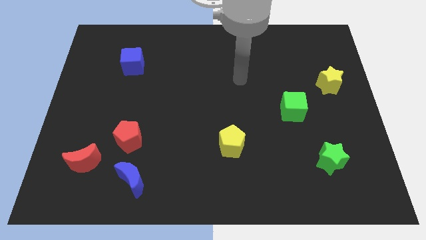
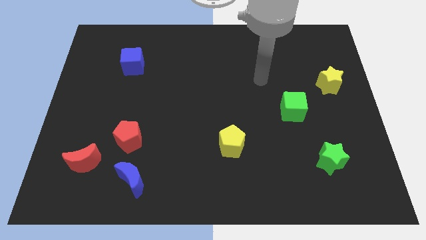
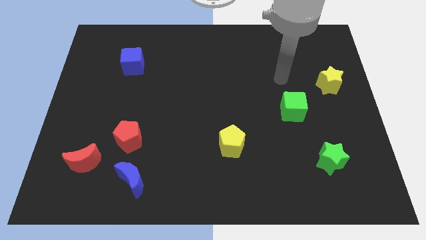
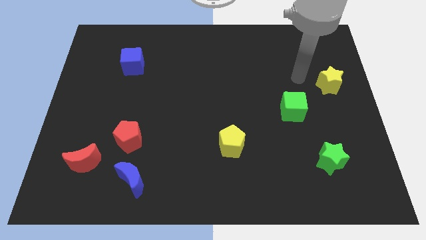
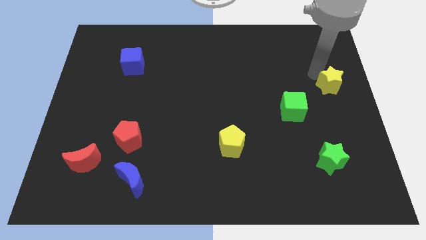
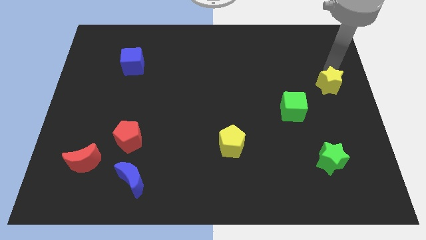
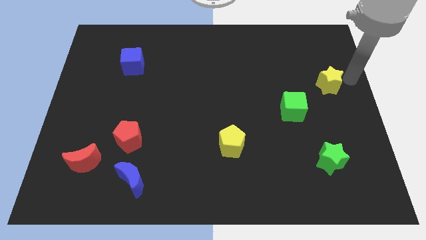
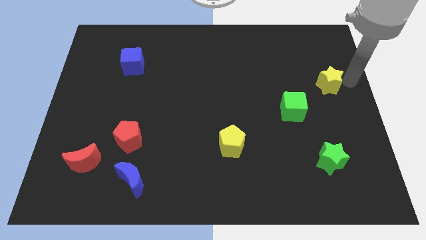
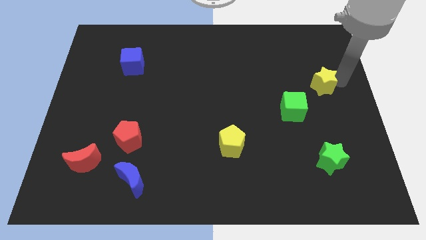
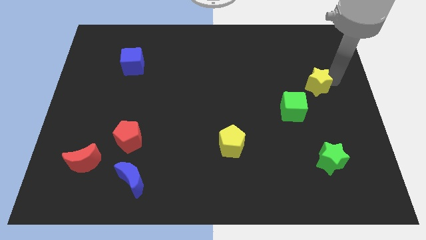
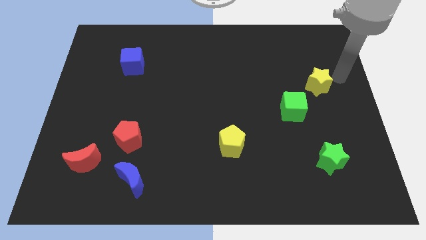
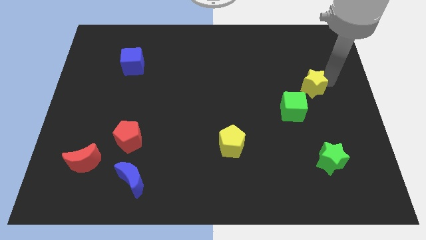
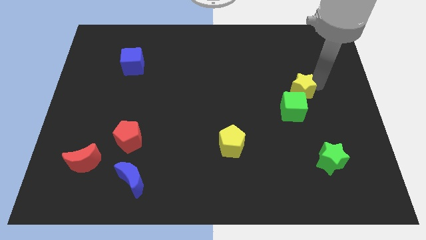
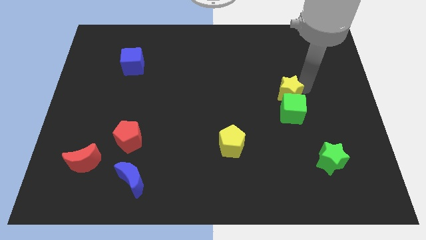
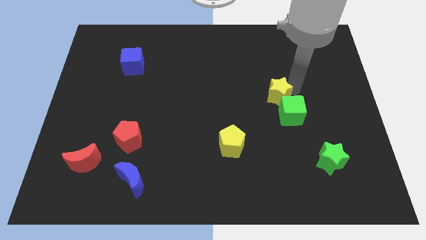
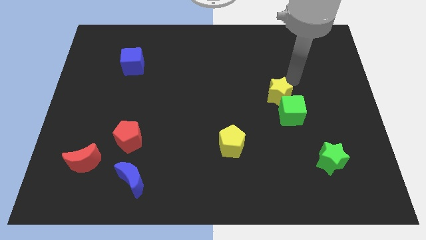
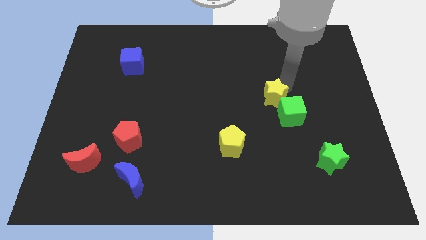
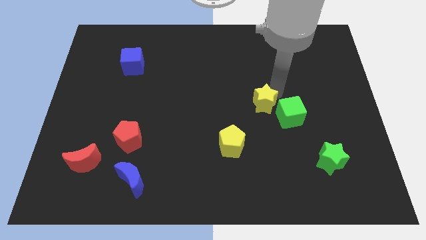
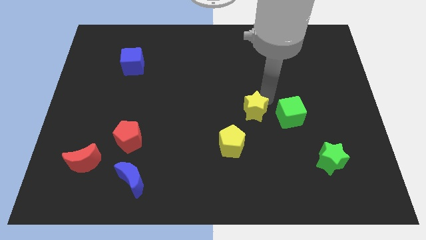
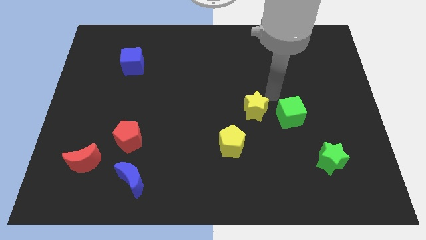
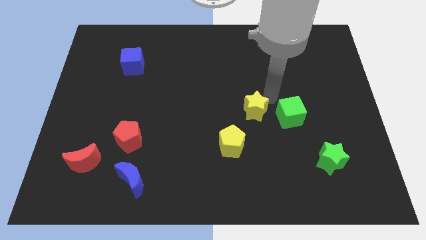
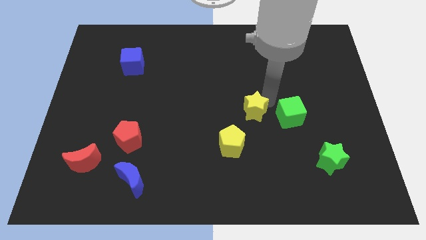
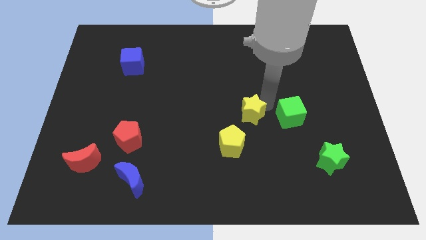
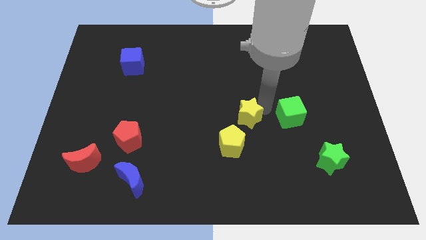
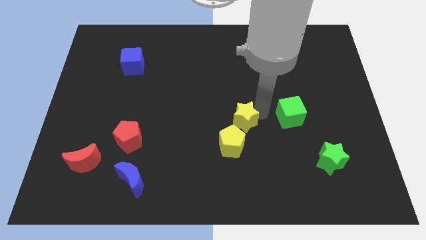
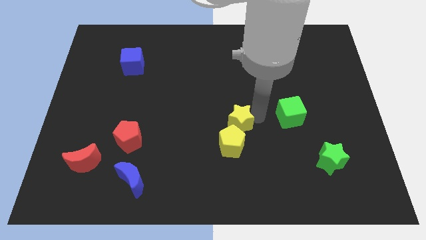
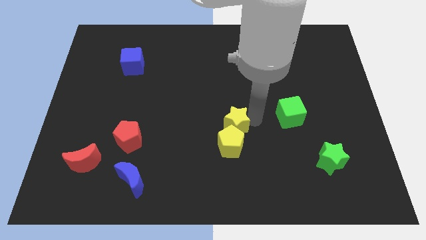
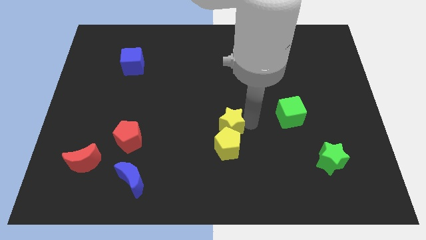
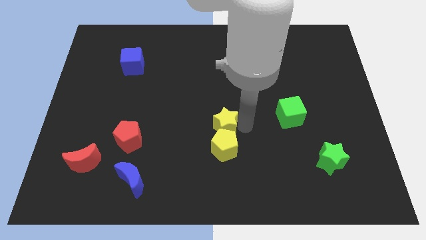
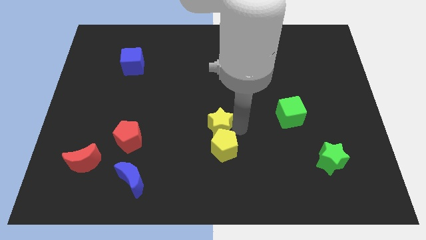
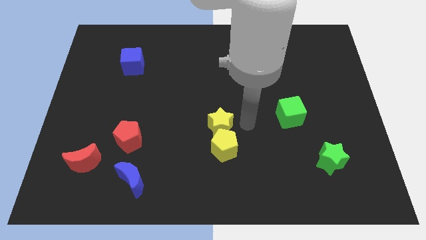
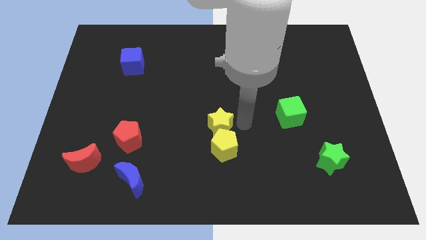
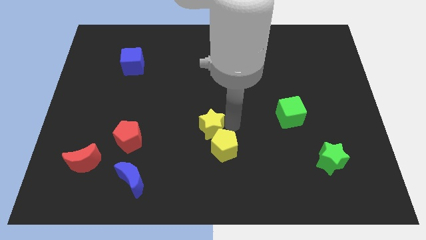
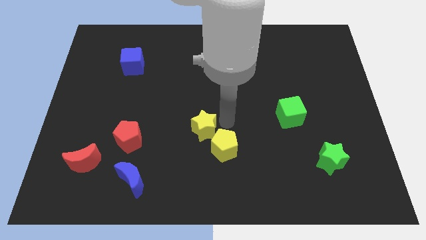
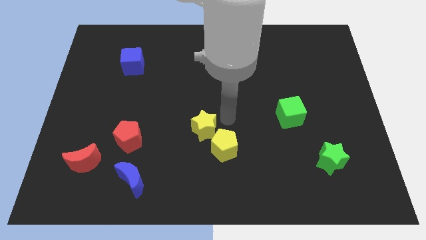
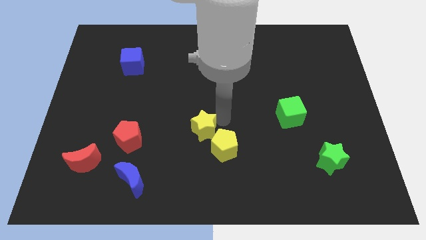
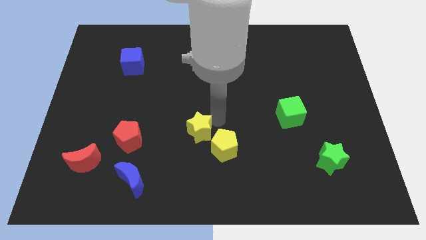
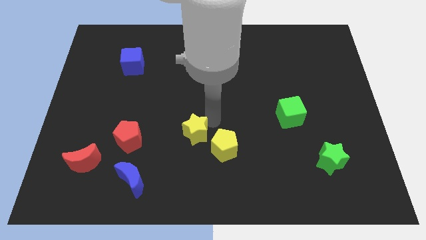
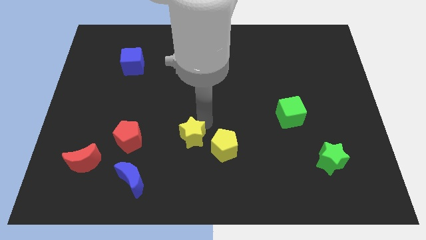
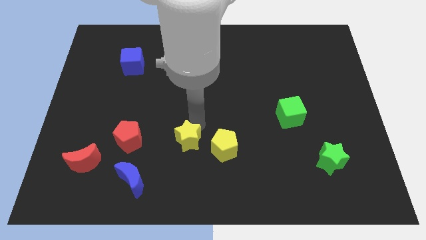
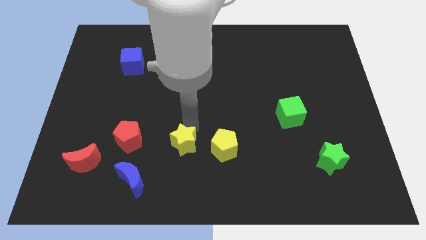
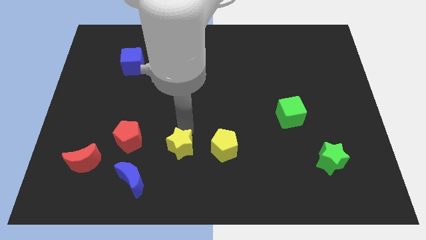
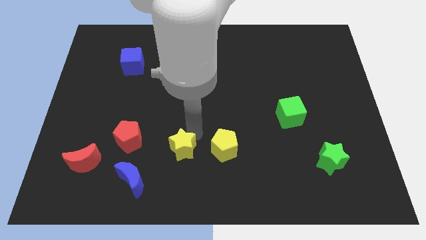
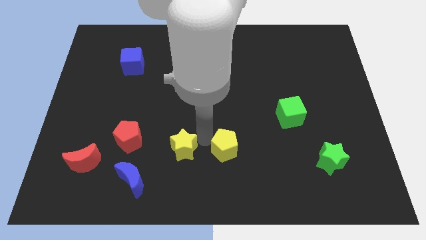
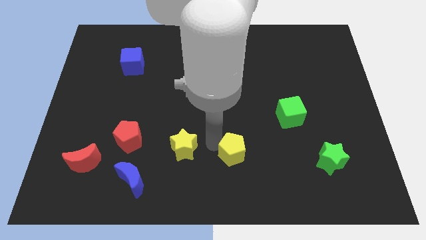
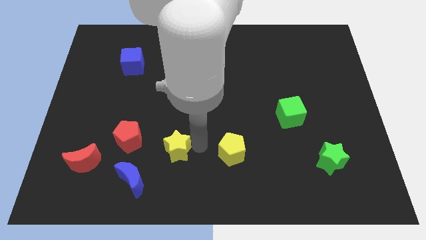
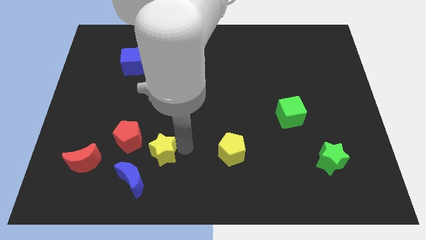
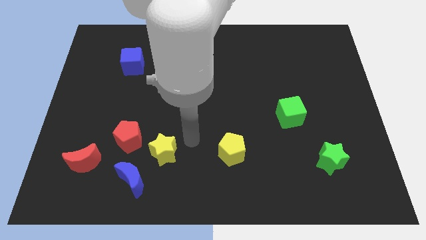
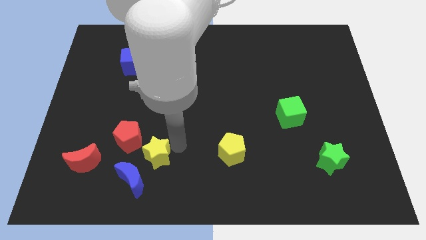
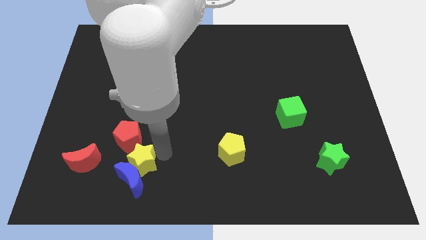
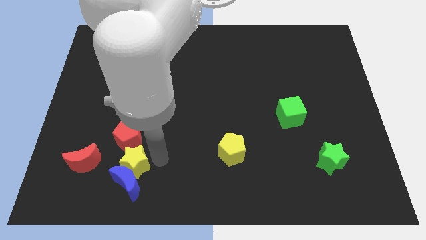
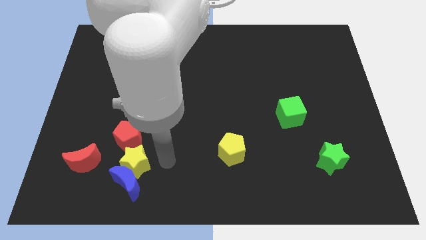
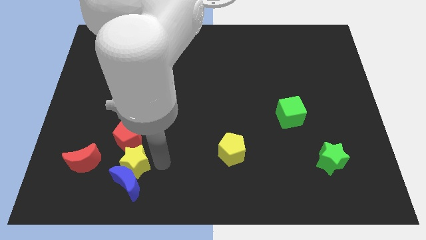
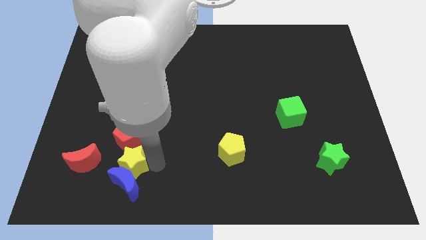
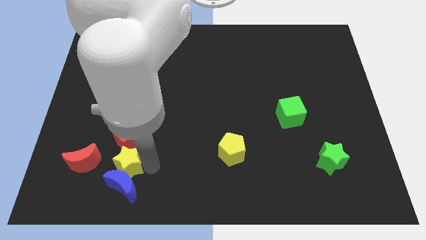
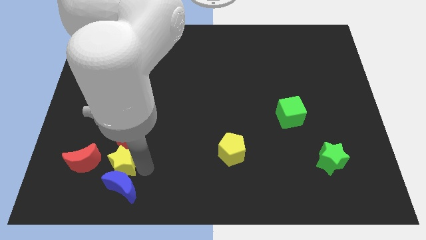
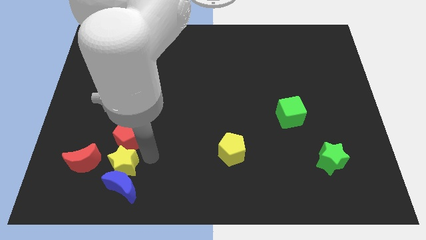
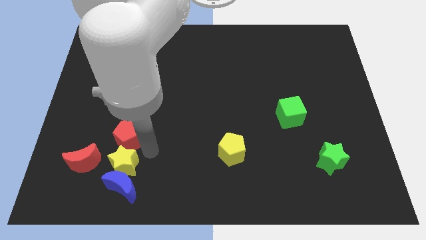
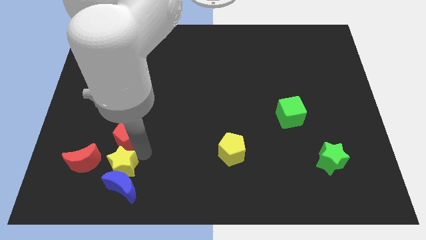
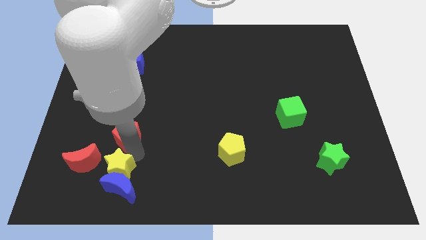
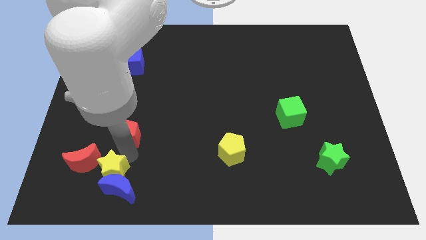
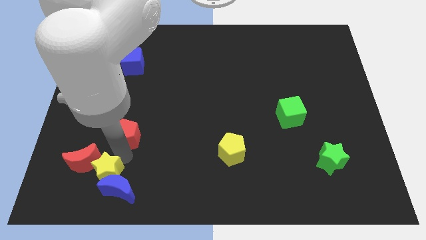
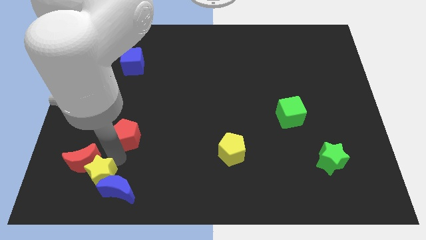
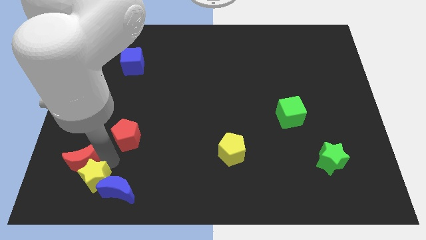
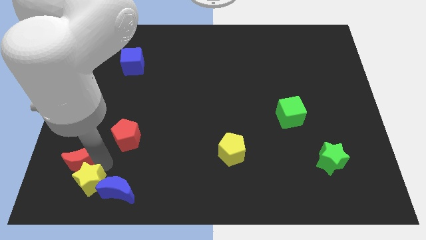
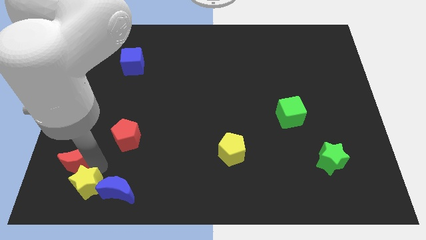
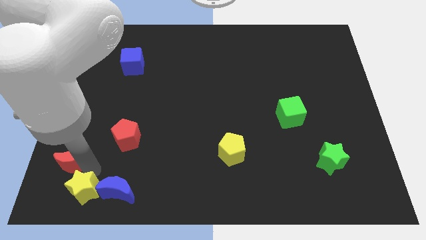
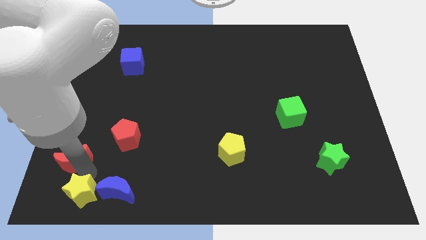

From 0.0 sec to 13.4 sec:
move the yellow star to the lower left corner
